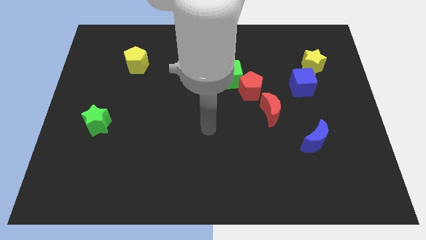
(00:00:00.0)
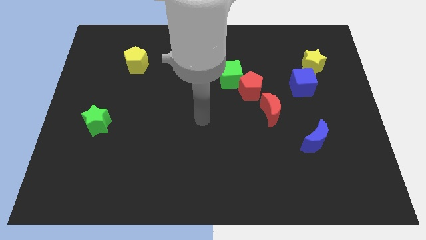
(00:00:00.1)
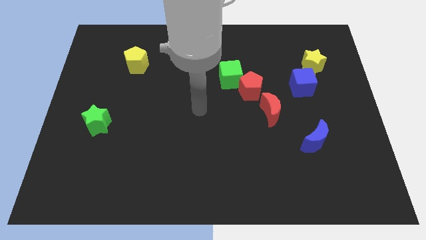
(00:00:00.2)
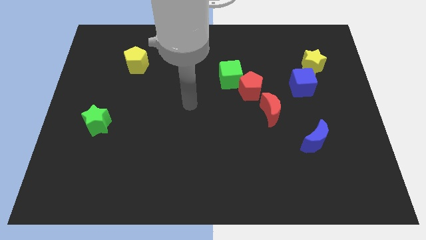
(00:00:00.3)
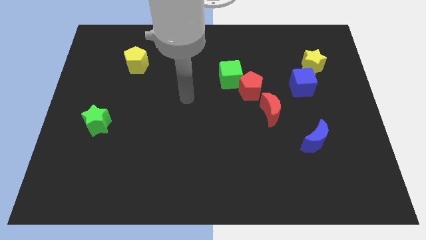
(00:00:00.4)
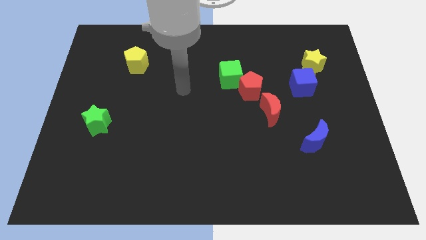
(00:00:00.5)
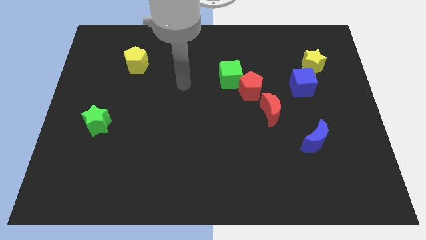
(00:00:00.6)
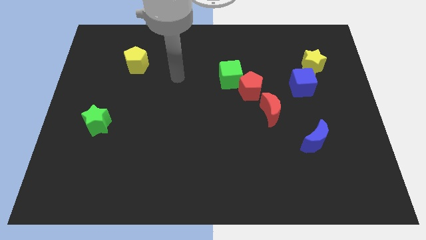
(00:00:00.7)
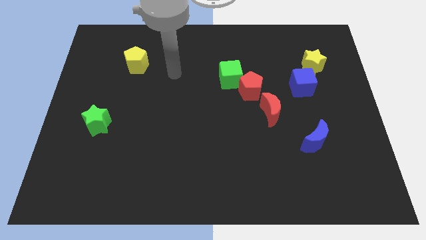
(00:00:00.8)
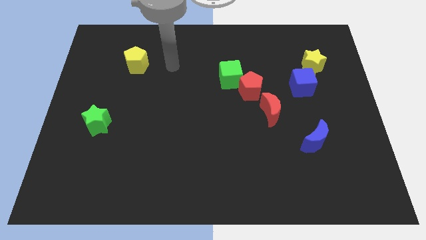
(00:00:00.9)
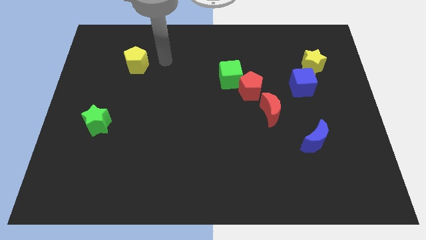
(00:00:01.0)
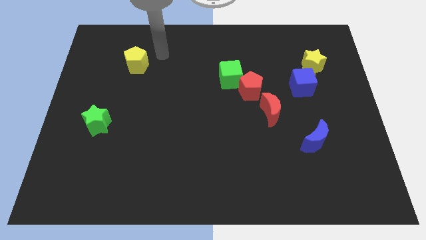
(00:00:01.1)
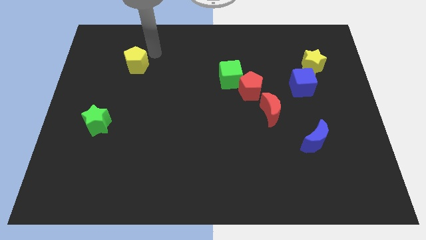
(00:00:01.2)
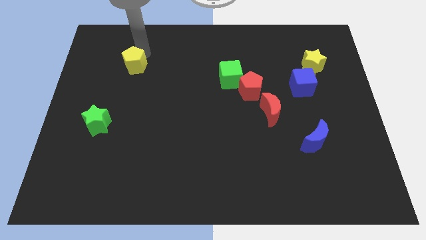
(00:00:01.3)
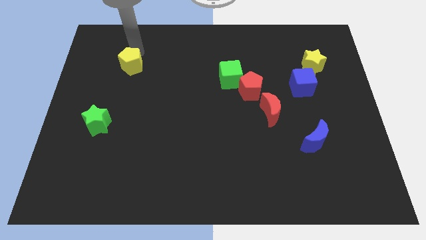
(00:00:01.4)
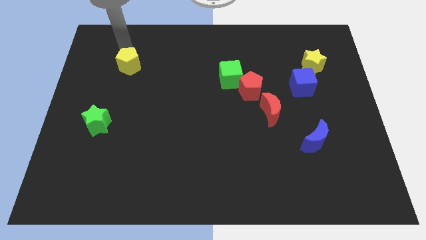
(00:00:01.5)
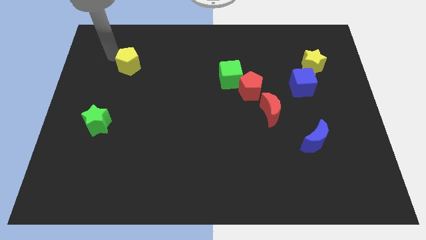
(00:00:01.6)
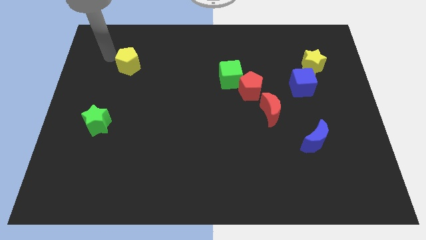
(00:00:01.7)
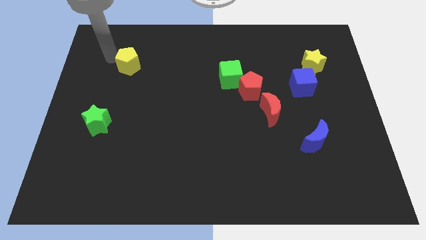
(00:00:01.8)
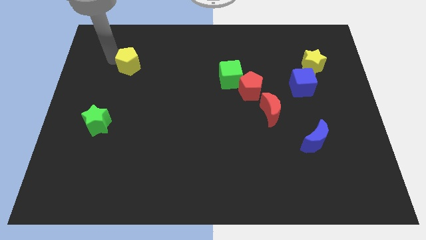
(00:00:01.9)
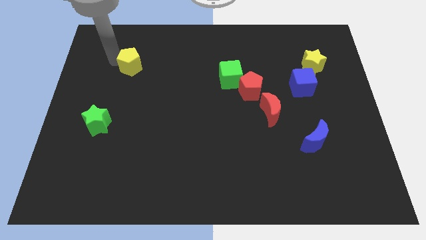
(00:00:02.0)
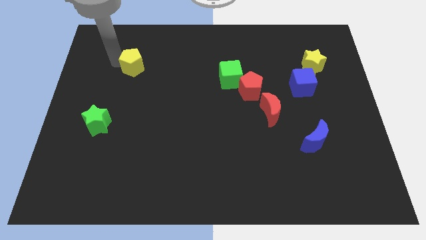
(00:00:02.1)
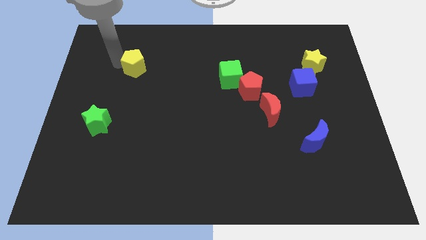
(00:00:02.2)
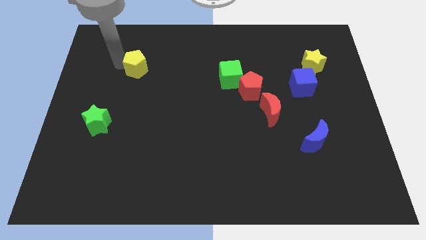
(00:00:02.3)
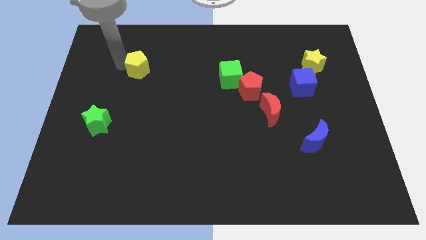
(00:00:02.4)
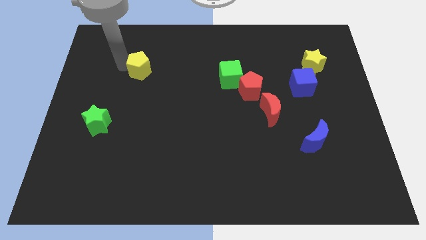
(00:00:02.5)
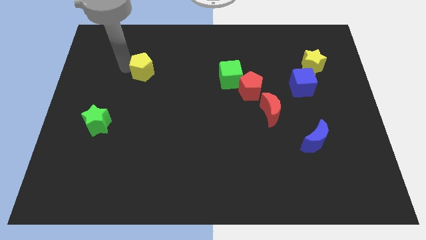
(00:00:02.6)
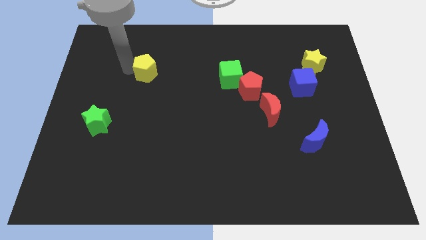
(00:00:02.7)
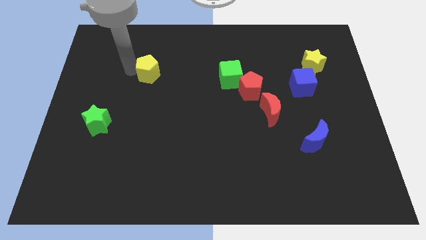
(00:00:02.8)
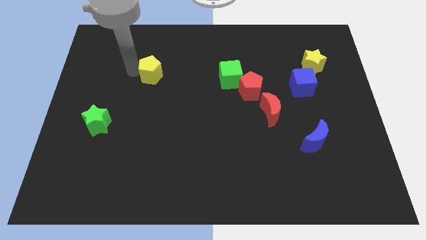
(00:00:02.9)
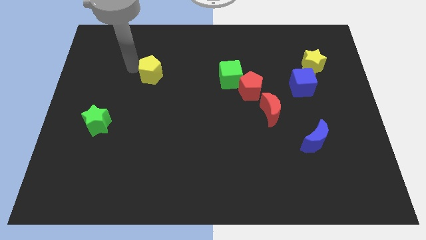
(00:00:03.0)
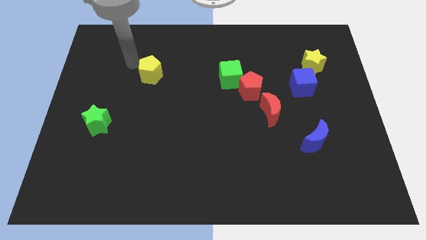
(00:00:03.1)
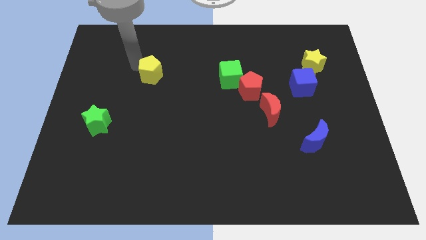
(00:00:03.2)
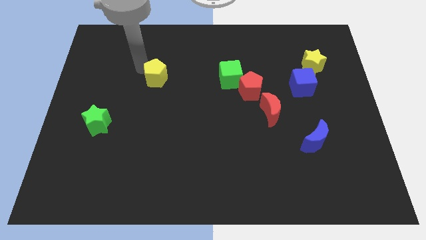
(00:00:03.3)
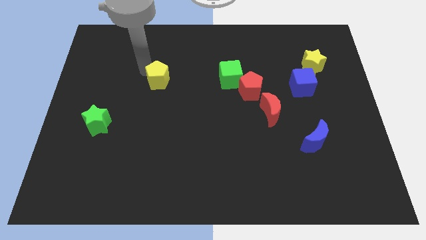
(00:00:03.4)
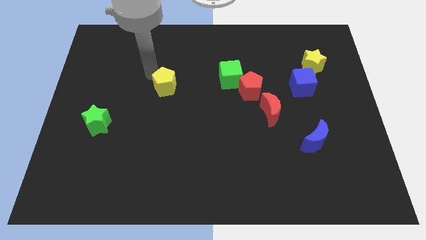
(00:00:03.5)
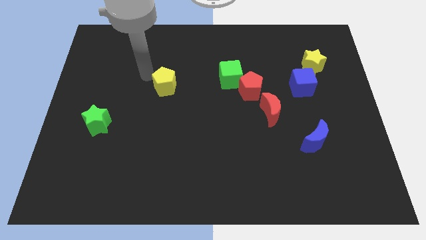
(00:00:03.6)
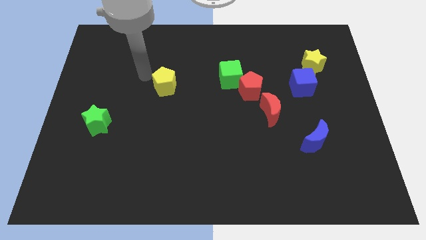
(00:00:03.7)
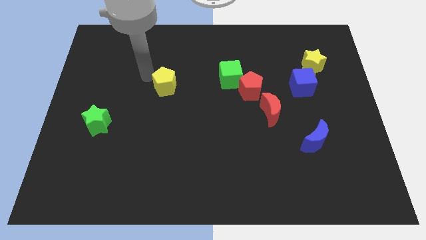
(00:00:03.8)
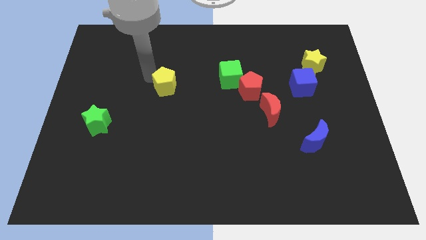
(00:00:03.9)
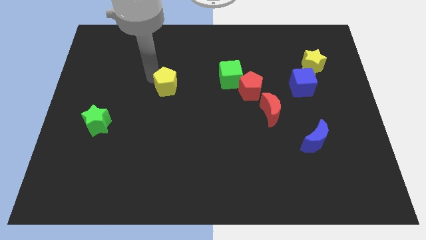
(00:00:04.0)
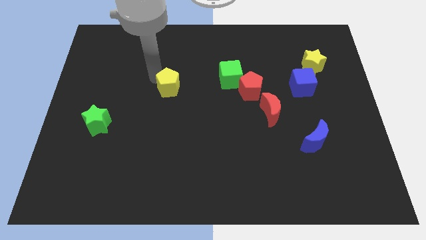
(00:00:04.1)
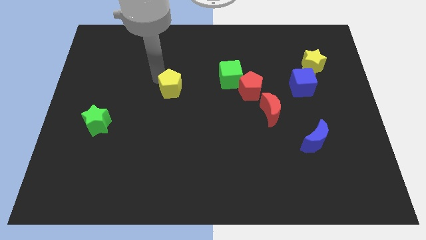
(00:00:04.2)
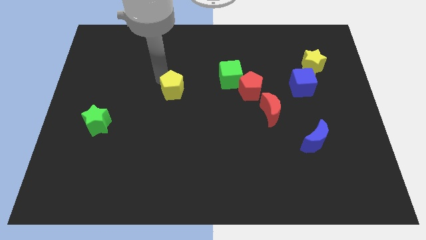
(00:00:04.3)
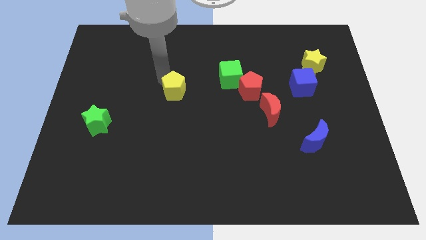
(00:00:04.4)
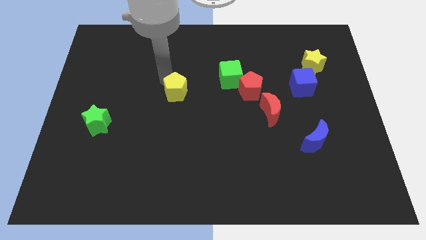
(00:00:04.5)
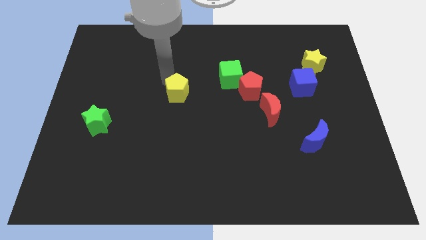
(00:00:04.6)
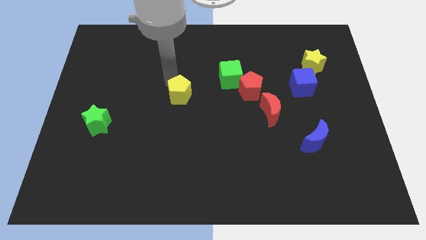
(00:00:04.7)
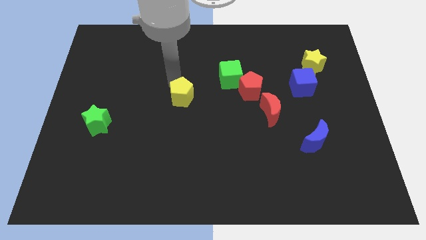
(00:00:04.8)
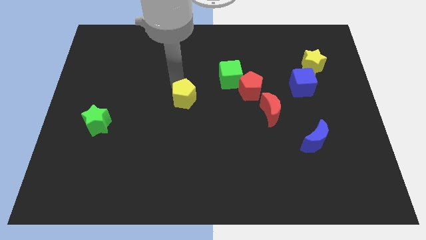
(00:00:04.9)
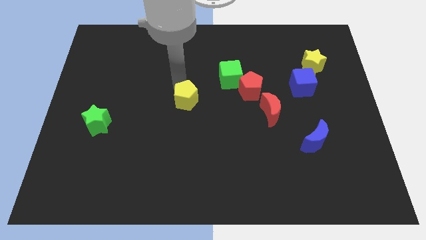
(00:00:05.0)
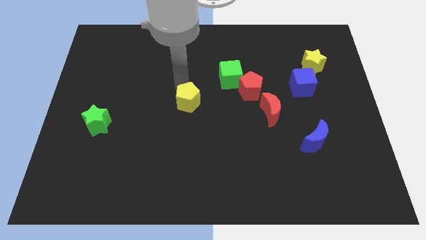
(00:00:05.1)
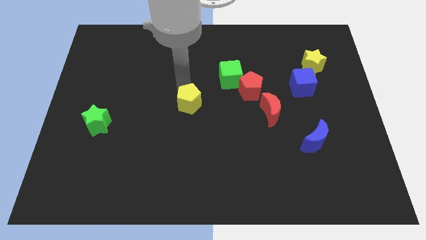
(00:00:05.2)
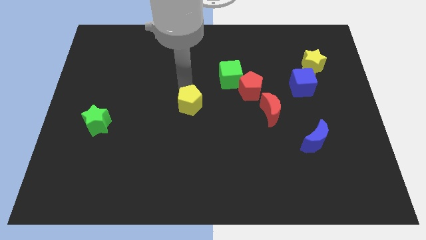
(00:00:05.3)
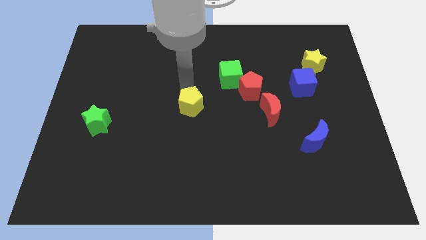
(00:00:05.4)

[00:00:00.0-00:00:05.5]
move the yellow pentagon downwards and to the right

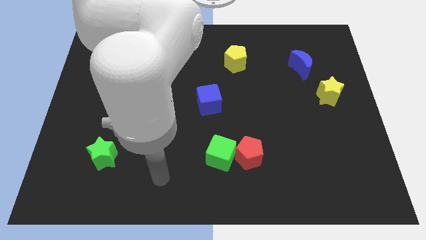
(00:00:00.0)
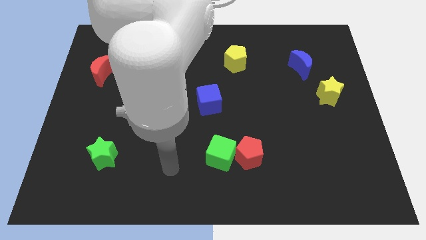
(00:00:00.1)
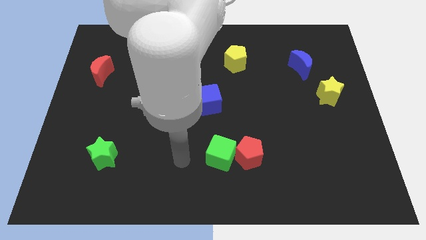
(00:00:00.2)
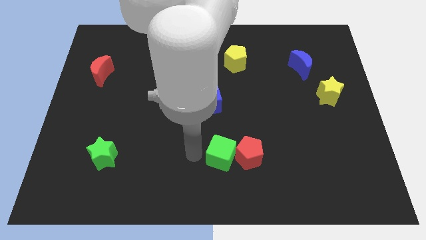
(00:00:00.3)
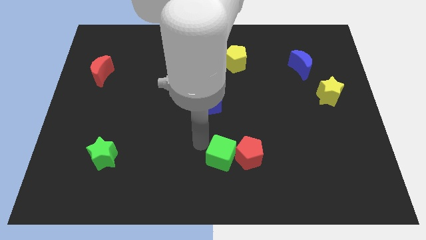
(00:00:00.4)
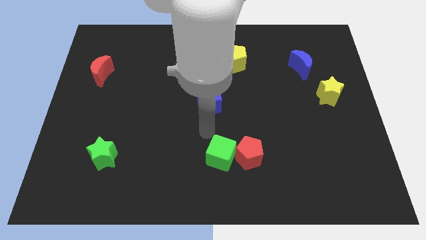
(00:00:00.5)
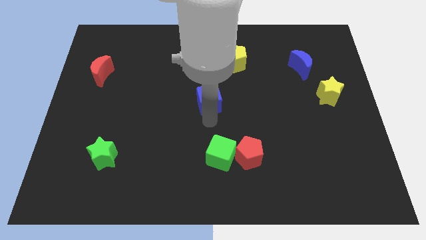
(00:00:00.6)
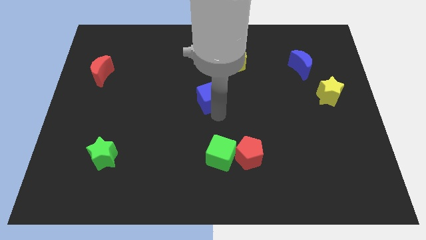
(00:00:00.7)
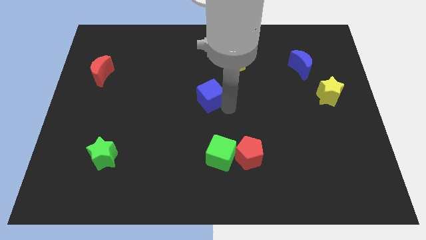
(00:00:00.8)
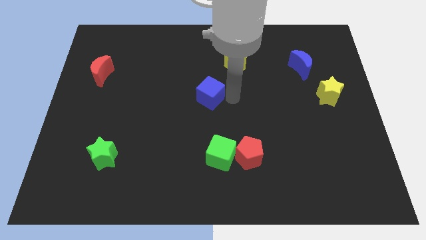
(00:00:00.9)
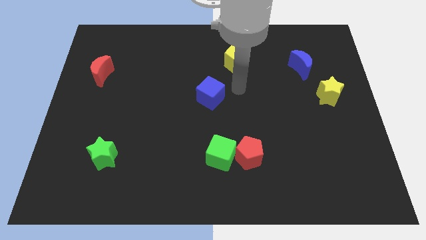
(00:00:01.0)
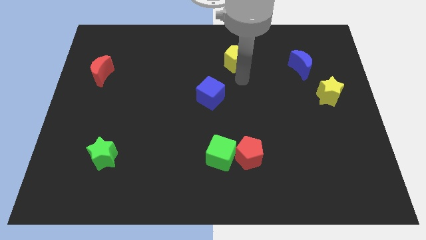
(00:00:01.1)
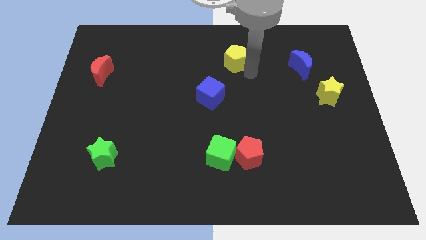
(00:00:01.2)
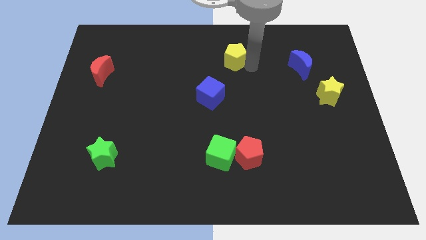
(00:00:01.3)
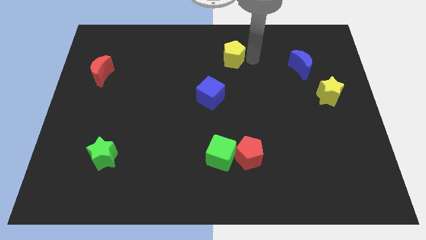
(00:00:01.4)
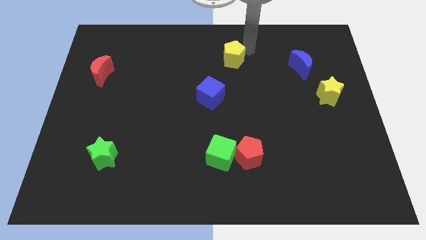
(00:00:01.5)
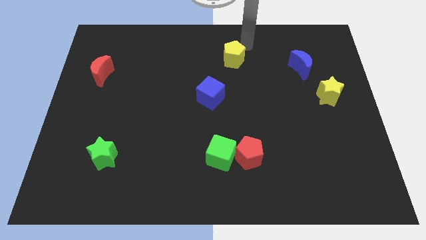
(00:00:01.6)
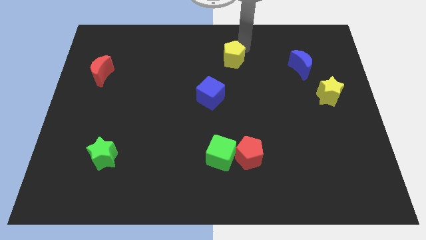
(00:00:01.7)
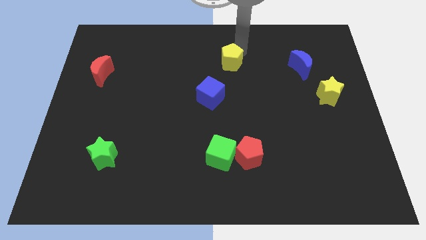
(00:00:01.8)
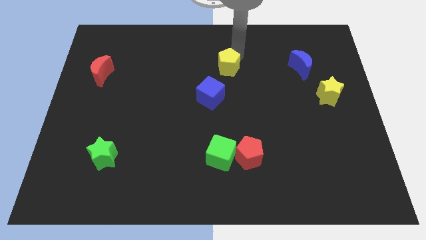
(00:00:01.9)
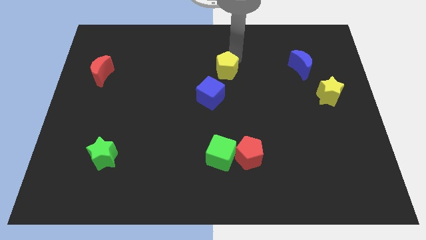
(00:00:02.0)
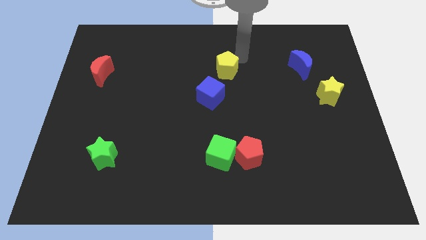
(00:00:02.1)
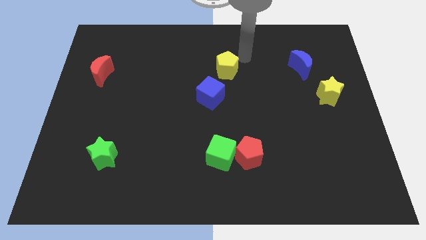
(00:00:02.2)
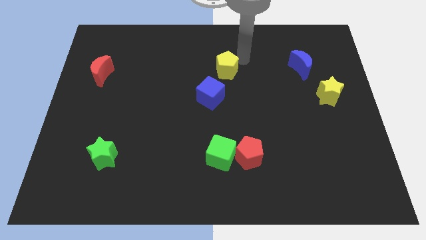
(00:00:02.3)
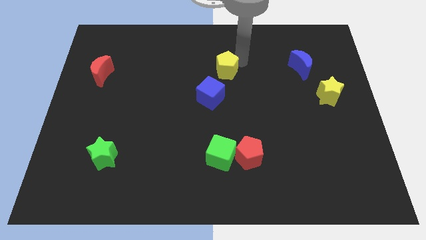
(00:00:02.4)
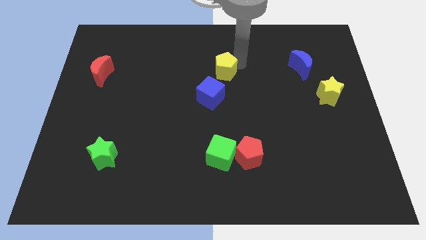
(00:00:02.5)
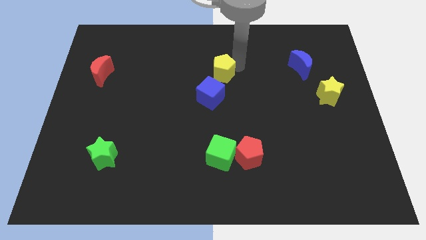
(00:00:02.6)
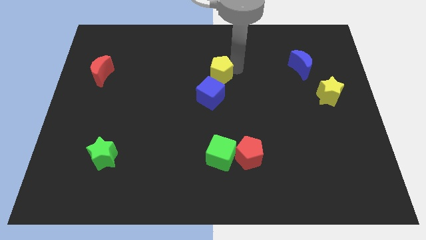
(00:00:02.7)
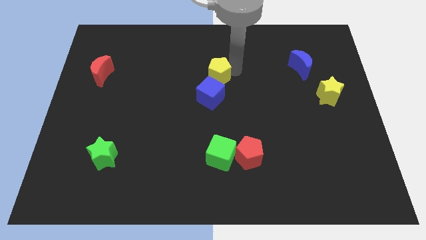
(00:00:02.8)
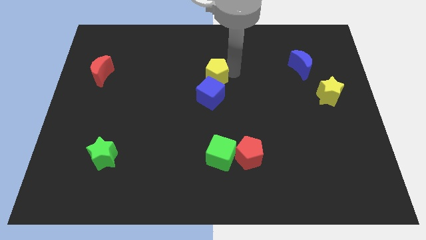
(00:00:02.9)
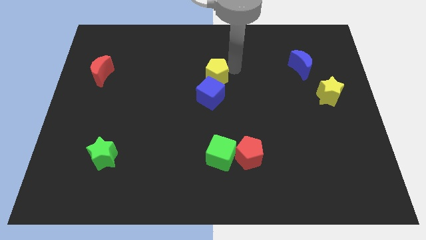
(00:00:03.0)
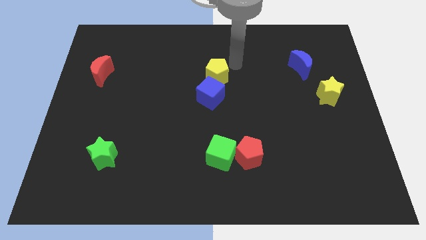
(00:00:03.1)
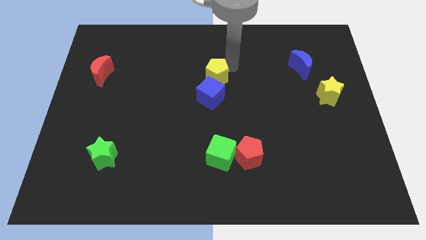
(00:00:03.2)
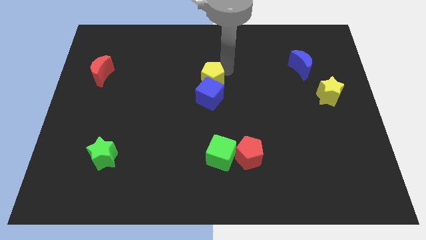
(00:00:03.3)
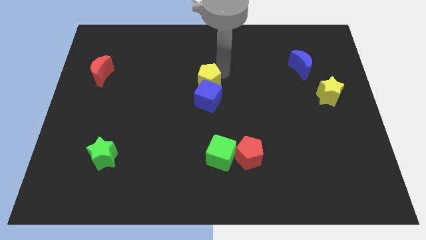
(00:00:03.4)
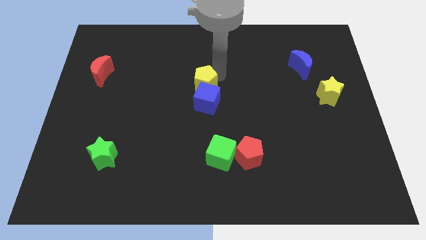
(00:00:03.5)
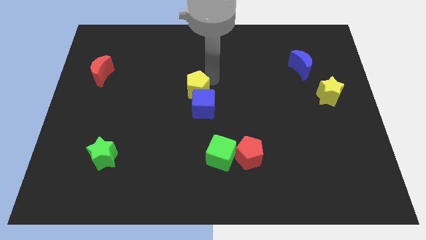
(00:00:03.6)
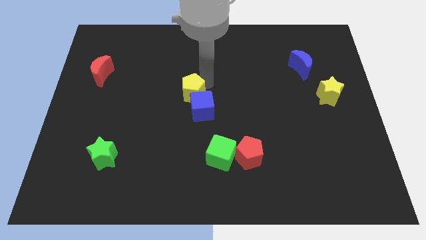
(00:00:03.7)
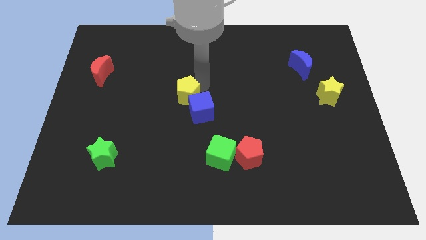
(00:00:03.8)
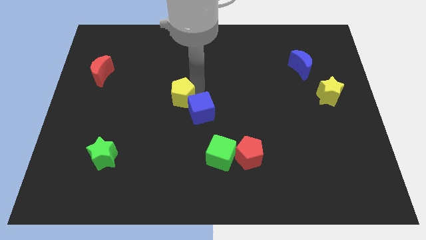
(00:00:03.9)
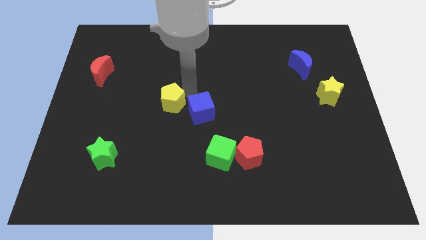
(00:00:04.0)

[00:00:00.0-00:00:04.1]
move the yellow pentagon downwards and then left
